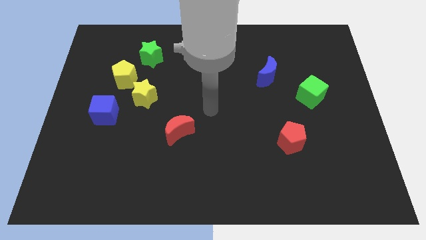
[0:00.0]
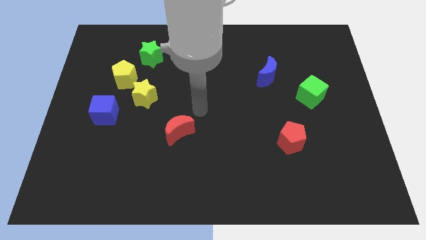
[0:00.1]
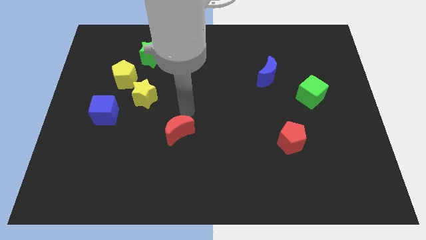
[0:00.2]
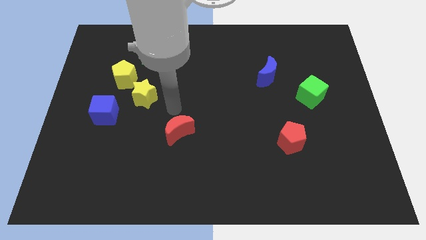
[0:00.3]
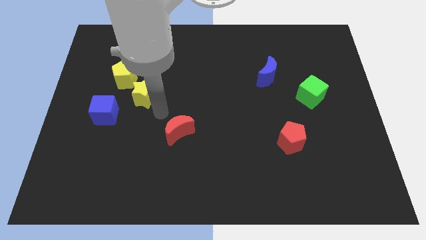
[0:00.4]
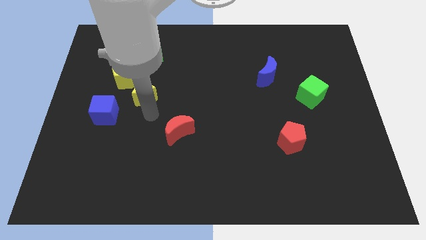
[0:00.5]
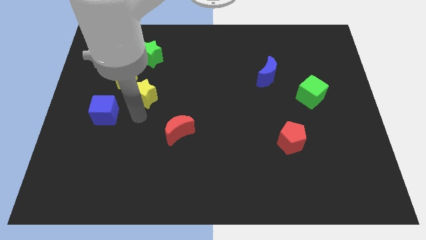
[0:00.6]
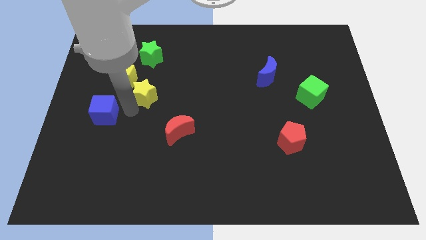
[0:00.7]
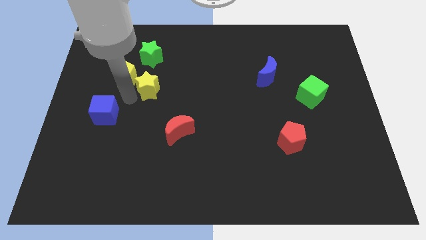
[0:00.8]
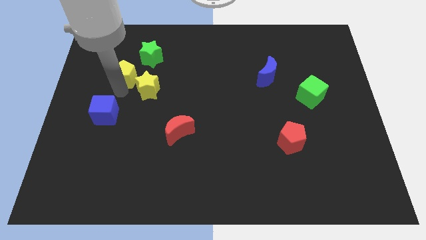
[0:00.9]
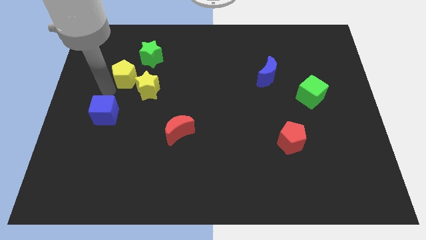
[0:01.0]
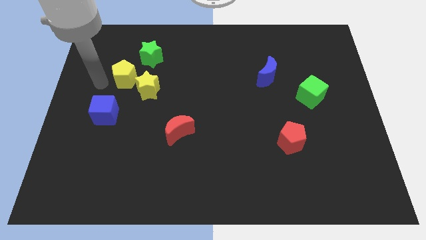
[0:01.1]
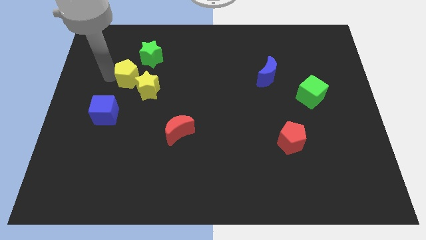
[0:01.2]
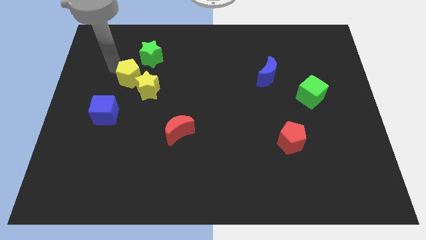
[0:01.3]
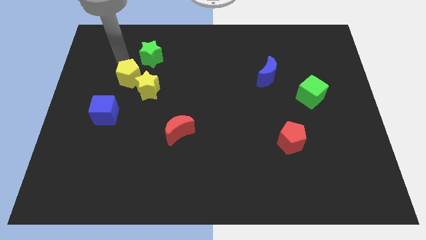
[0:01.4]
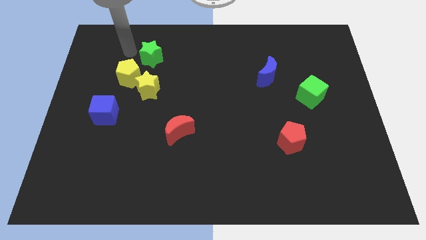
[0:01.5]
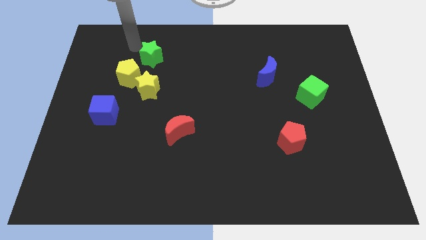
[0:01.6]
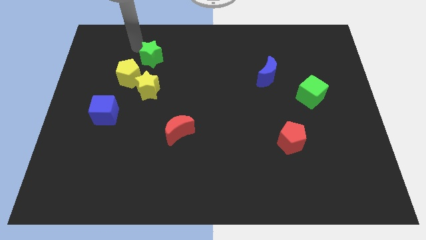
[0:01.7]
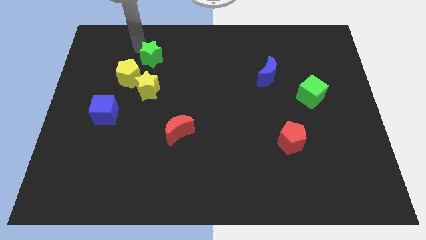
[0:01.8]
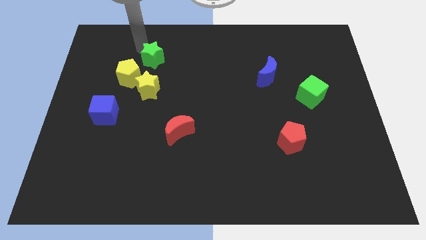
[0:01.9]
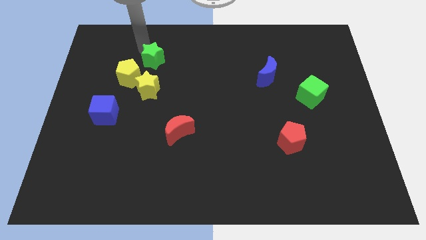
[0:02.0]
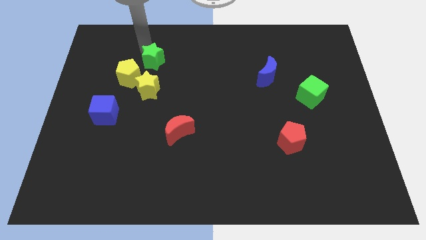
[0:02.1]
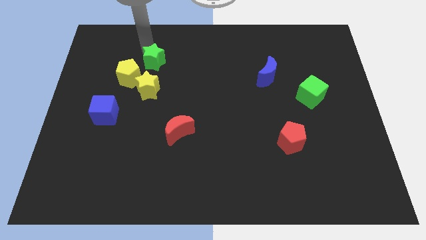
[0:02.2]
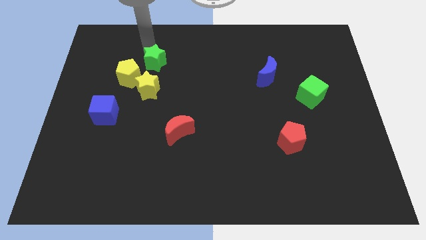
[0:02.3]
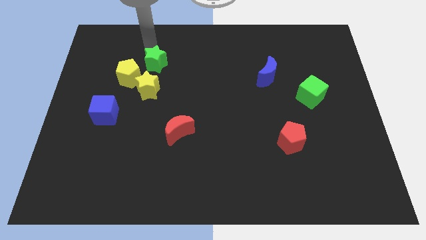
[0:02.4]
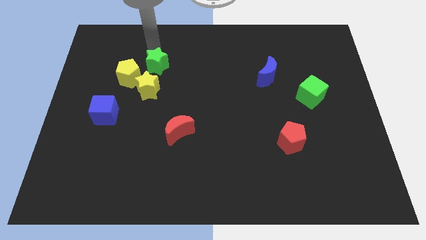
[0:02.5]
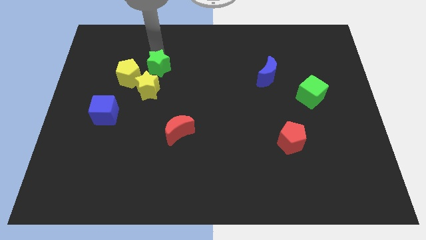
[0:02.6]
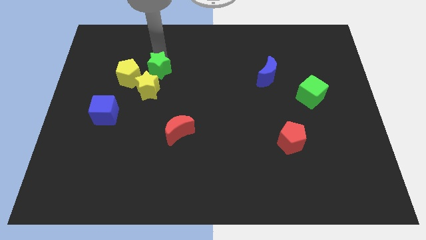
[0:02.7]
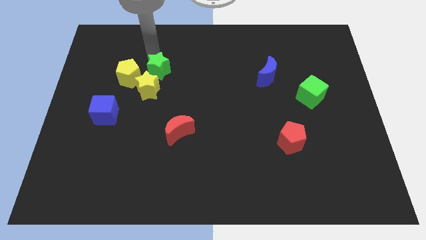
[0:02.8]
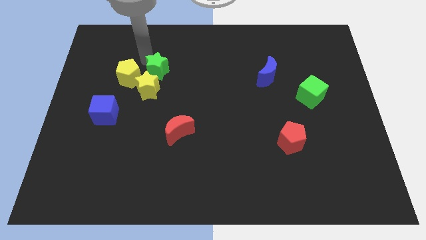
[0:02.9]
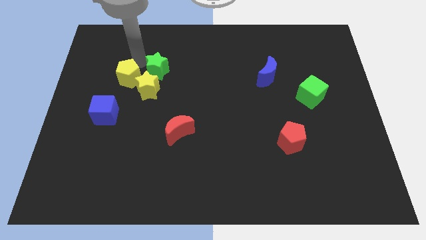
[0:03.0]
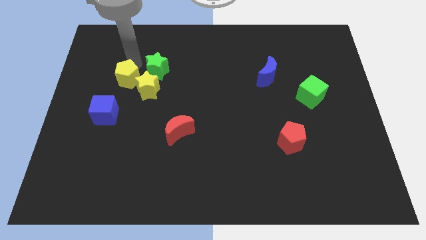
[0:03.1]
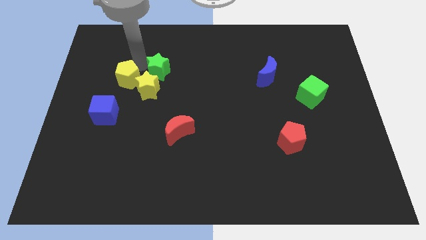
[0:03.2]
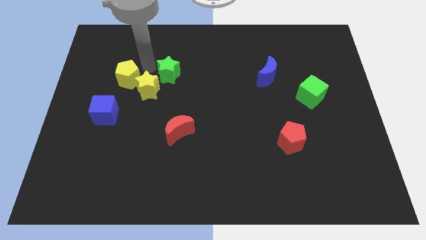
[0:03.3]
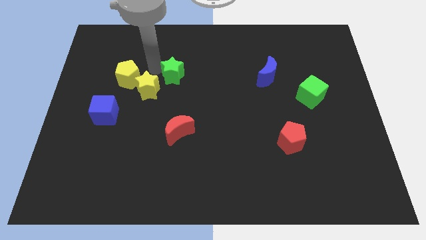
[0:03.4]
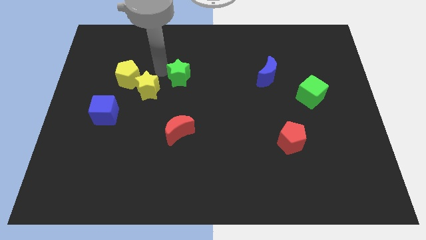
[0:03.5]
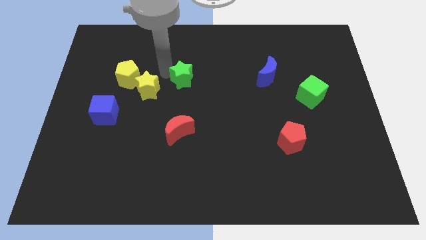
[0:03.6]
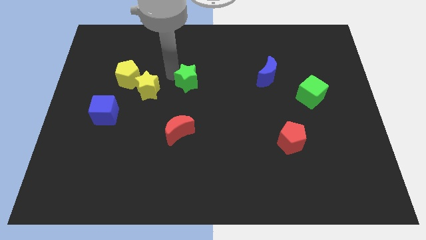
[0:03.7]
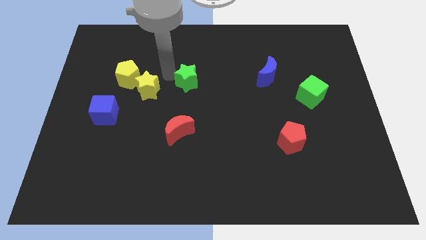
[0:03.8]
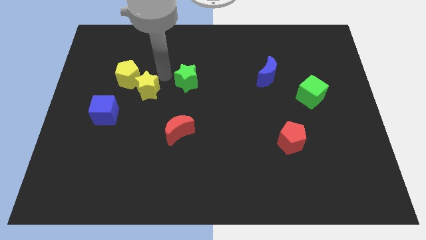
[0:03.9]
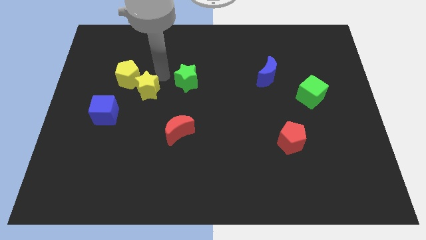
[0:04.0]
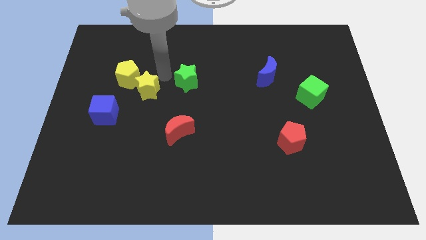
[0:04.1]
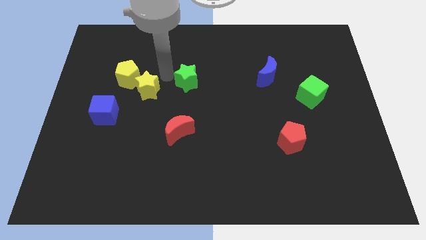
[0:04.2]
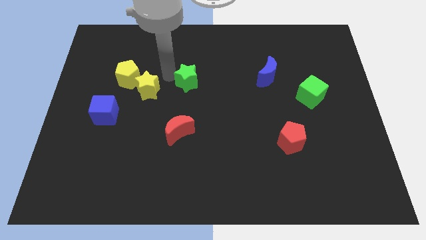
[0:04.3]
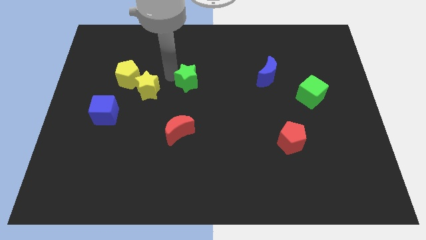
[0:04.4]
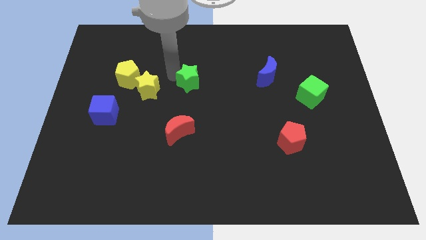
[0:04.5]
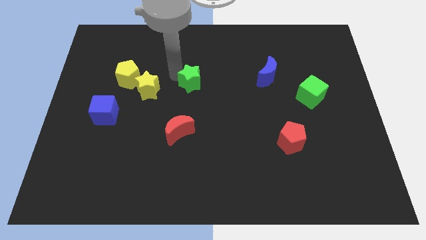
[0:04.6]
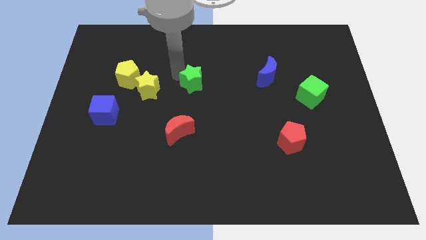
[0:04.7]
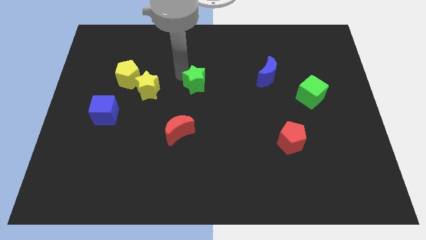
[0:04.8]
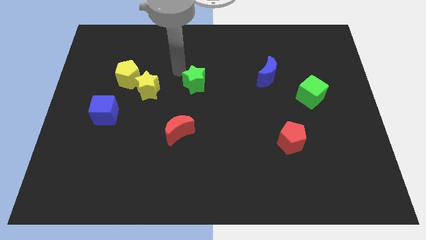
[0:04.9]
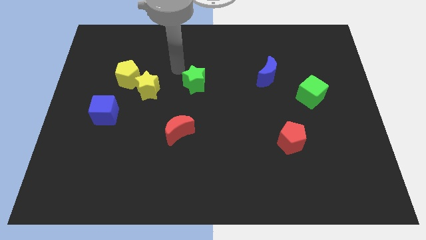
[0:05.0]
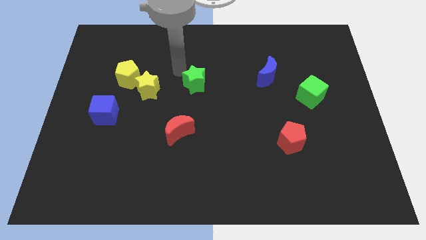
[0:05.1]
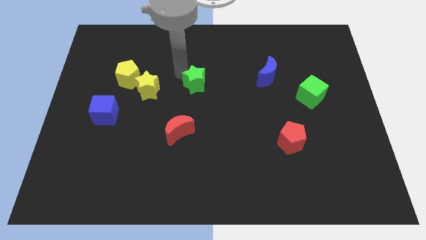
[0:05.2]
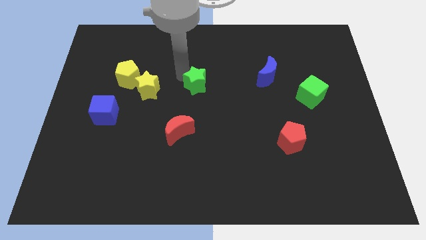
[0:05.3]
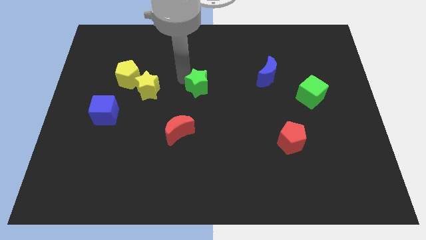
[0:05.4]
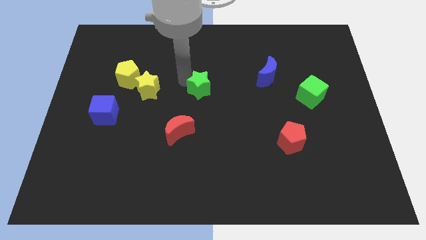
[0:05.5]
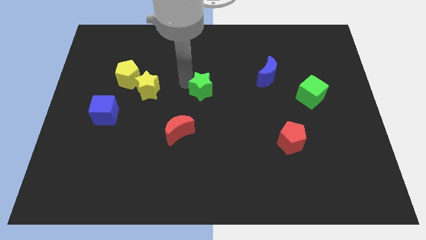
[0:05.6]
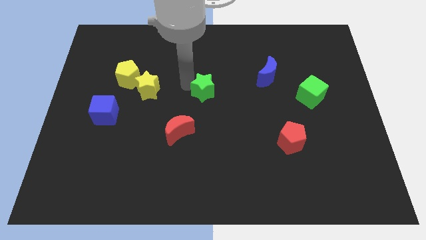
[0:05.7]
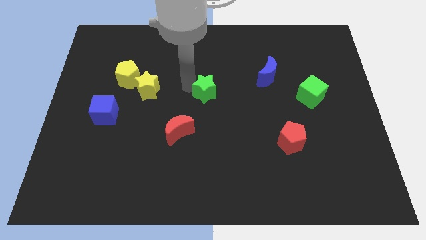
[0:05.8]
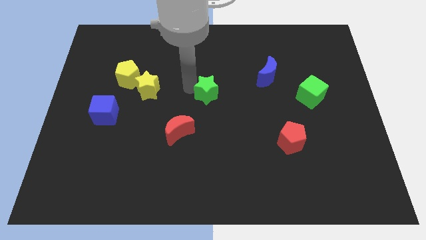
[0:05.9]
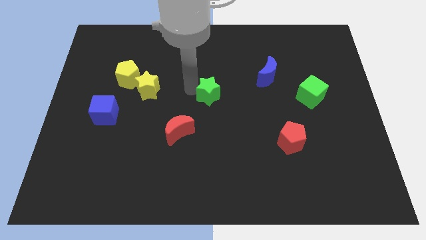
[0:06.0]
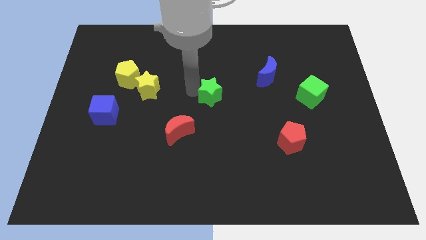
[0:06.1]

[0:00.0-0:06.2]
push the green star diagonally down and to the right

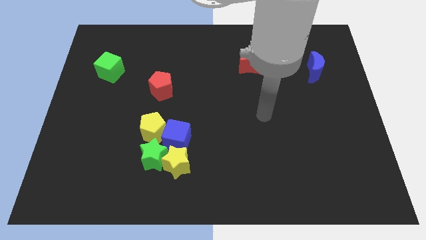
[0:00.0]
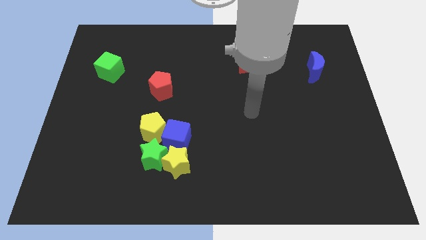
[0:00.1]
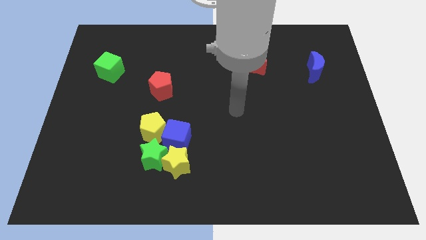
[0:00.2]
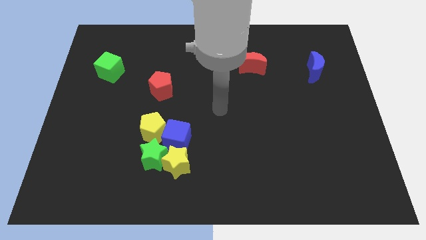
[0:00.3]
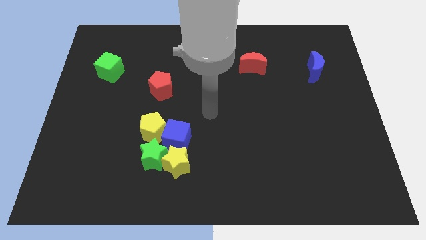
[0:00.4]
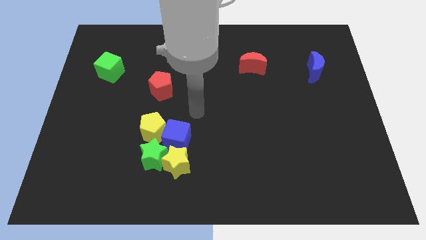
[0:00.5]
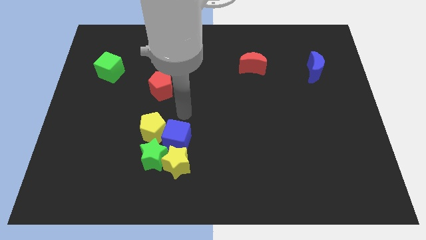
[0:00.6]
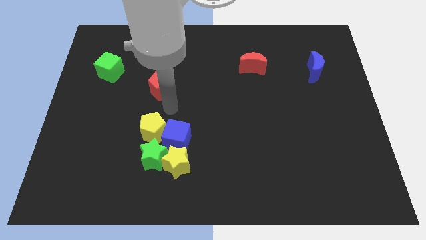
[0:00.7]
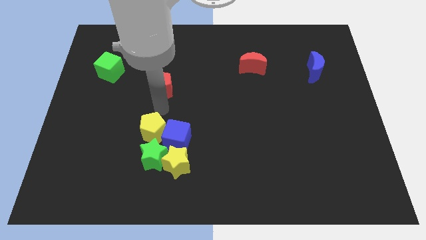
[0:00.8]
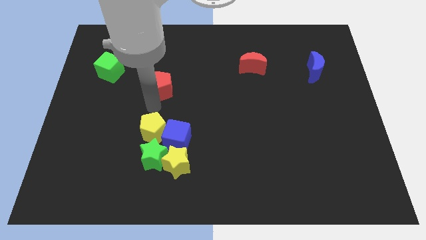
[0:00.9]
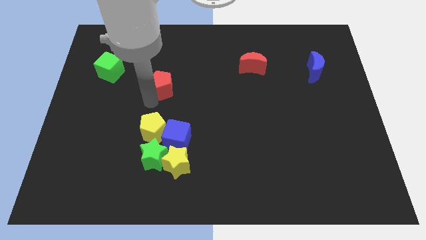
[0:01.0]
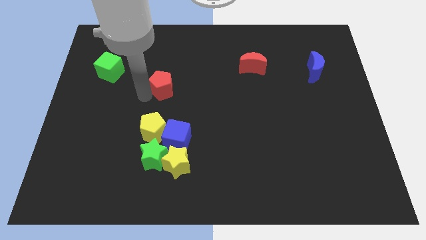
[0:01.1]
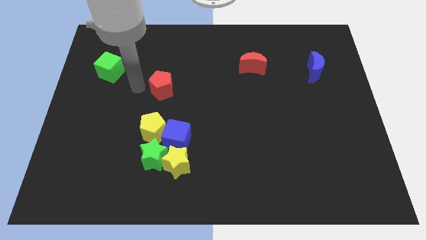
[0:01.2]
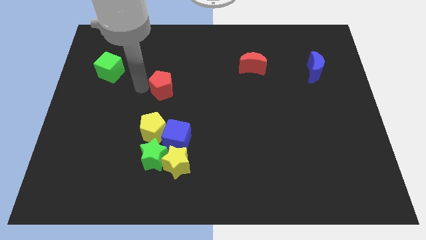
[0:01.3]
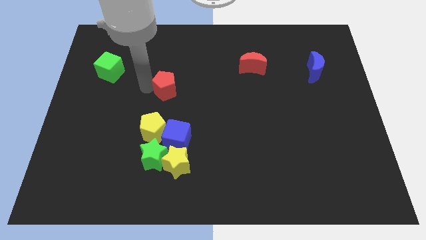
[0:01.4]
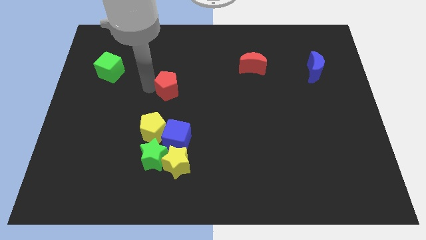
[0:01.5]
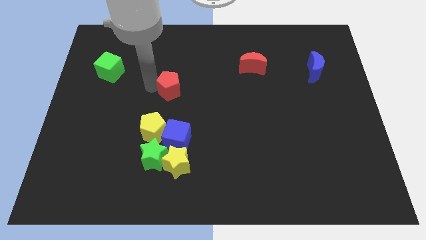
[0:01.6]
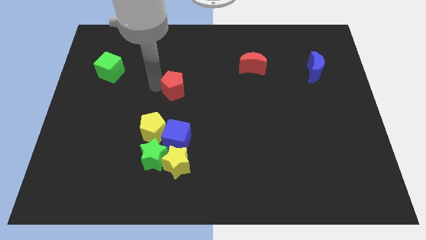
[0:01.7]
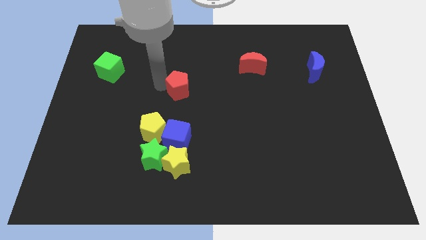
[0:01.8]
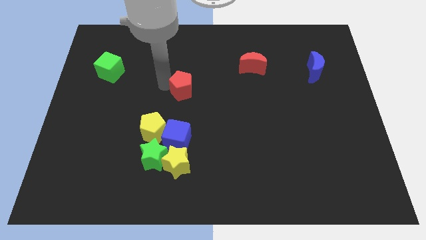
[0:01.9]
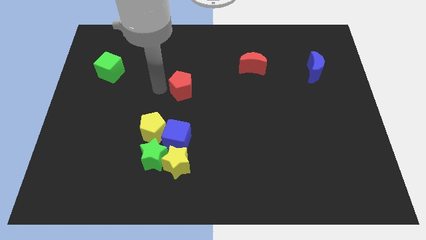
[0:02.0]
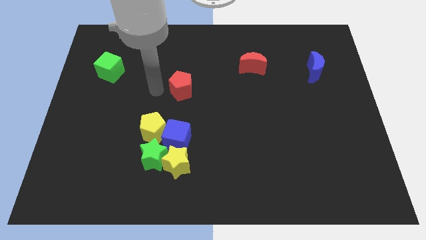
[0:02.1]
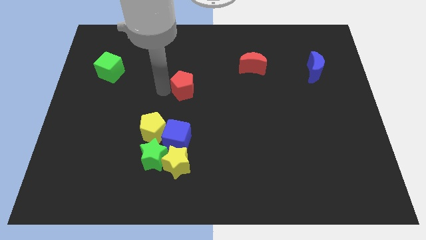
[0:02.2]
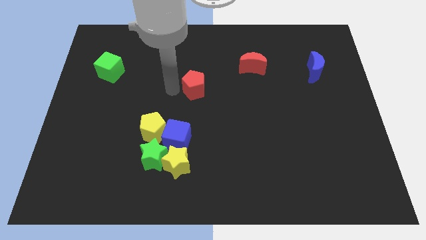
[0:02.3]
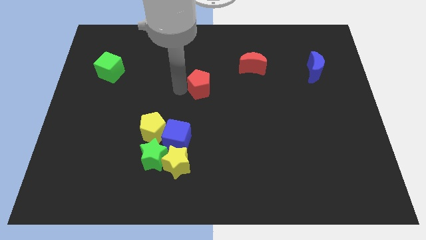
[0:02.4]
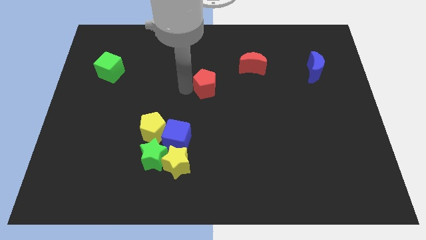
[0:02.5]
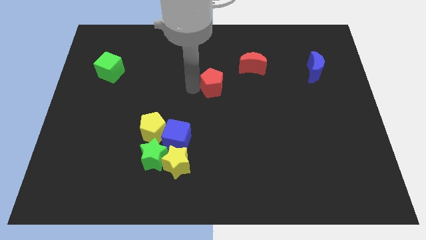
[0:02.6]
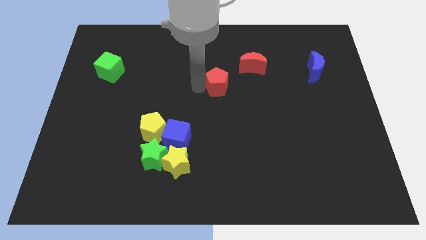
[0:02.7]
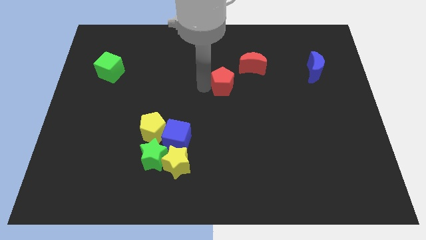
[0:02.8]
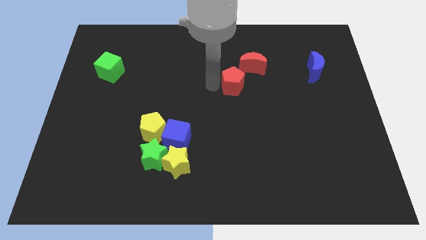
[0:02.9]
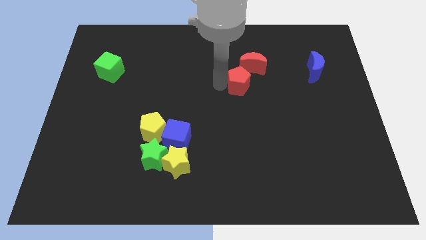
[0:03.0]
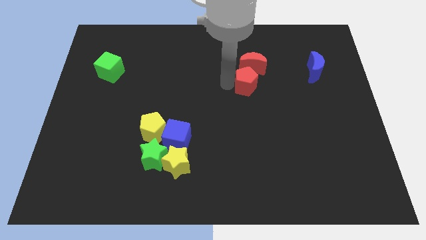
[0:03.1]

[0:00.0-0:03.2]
move the red pentagon right
